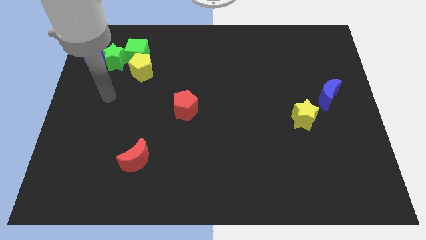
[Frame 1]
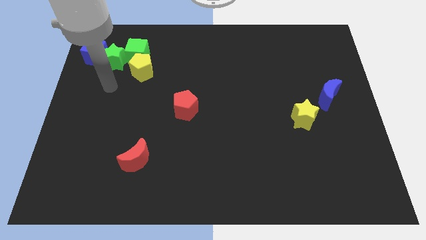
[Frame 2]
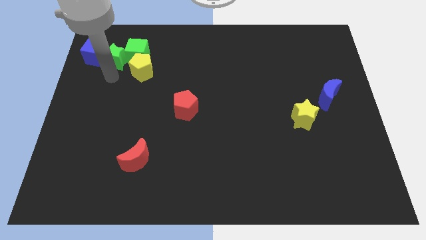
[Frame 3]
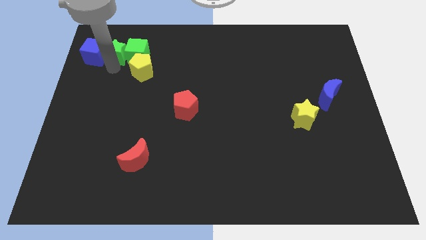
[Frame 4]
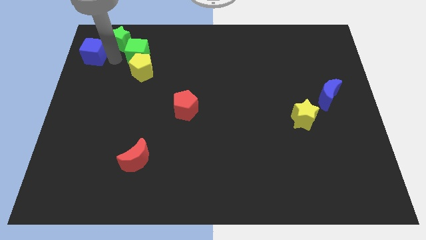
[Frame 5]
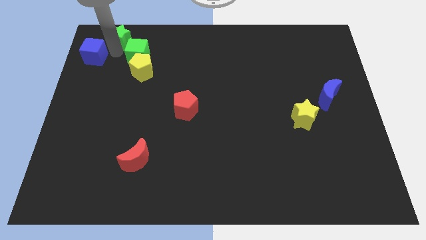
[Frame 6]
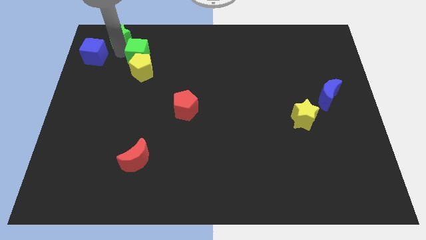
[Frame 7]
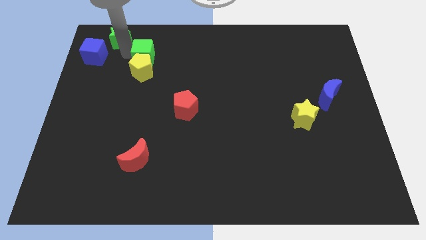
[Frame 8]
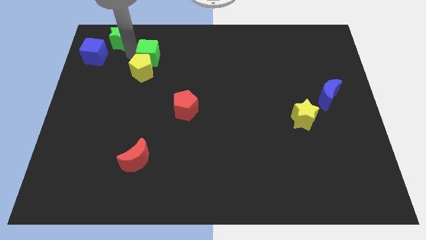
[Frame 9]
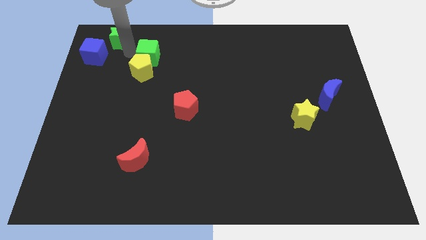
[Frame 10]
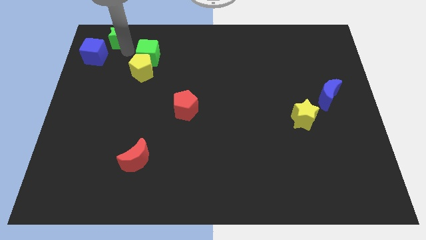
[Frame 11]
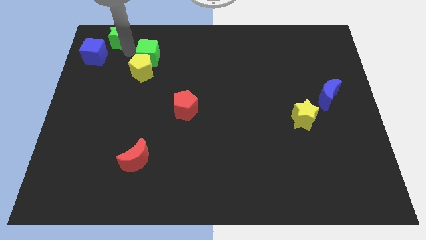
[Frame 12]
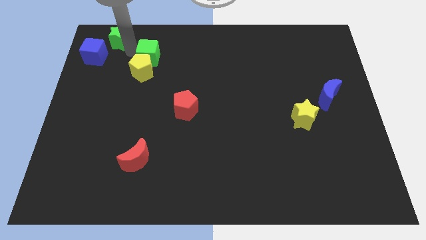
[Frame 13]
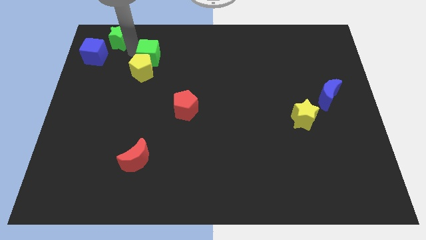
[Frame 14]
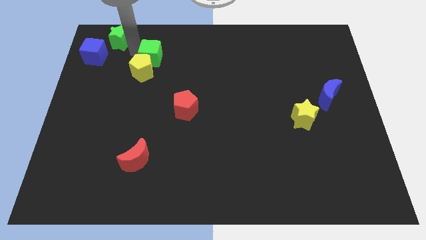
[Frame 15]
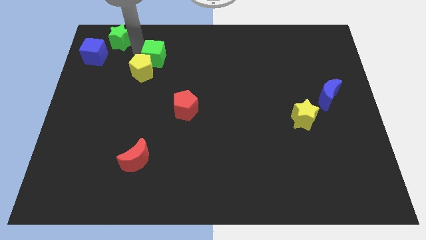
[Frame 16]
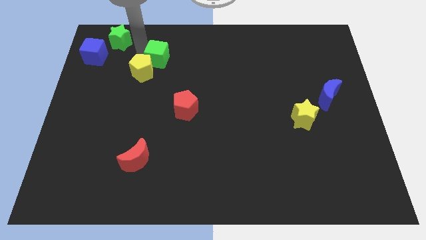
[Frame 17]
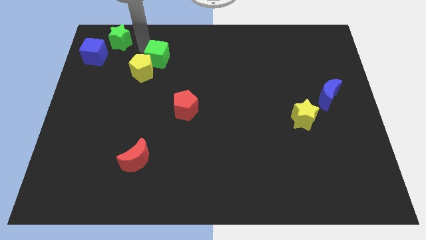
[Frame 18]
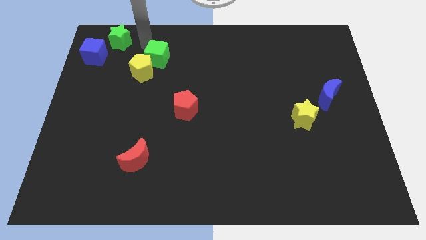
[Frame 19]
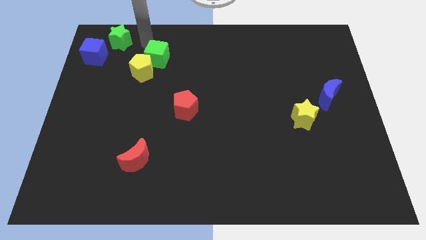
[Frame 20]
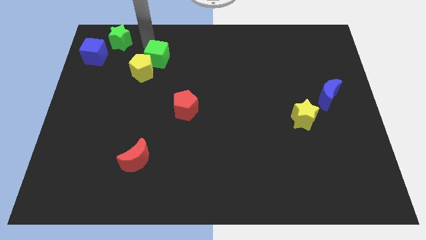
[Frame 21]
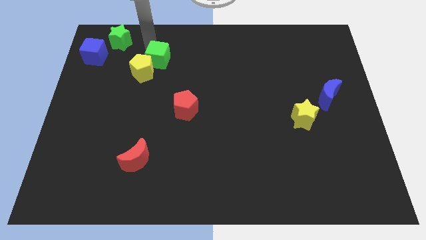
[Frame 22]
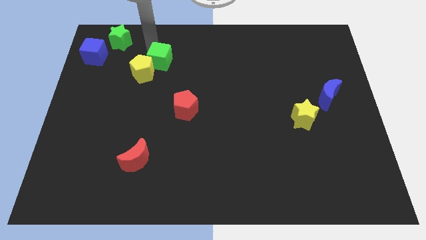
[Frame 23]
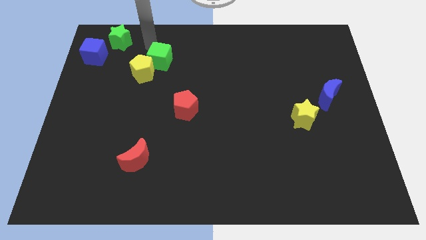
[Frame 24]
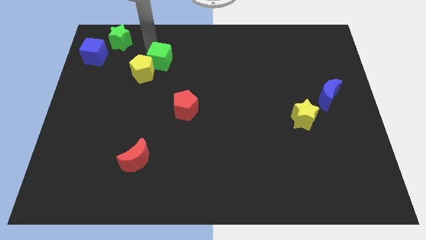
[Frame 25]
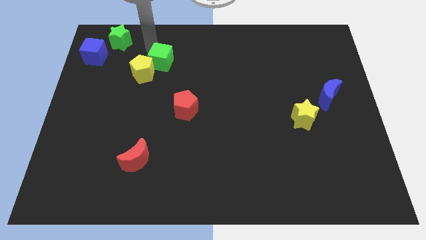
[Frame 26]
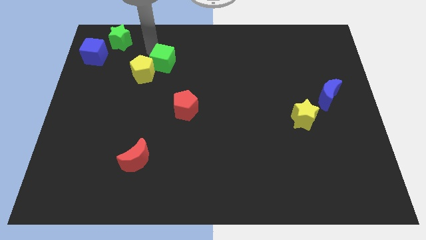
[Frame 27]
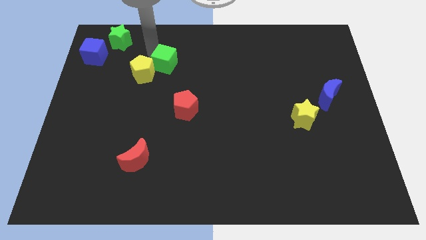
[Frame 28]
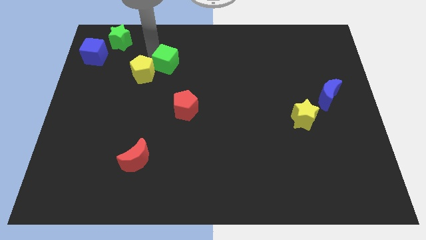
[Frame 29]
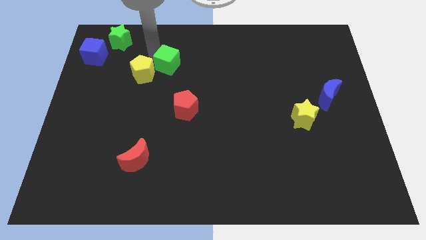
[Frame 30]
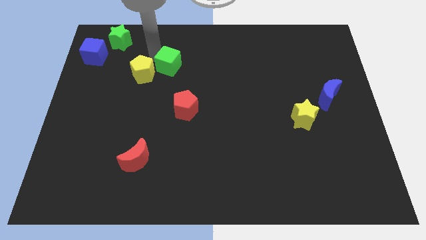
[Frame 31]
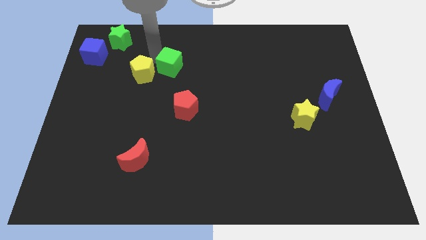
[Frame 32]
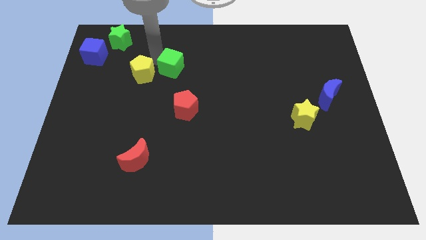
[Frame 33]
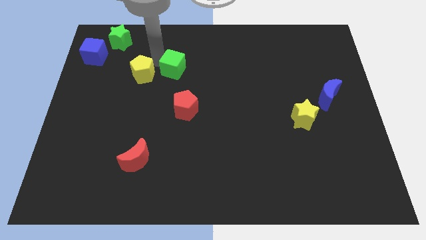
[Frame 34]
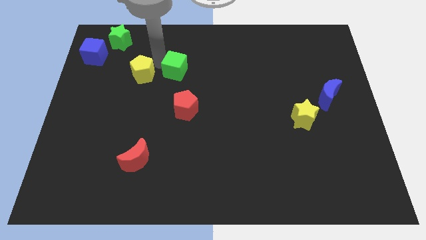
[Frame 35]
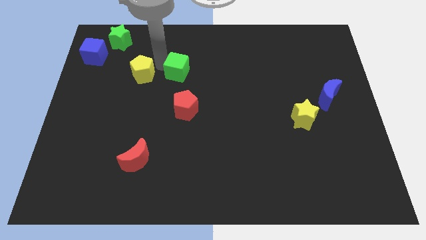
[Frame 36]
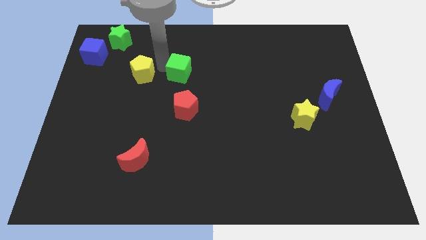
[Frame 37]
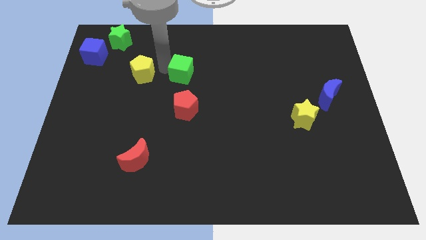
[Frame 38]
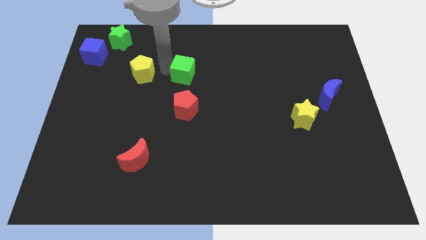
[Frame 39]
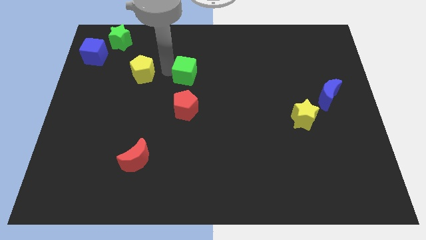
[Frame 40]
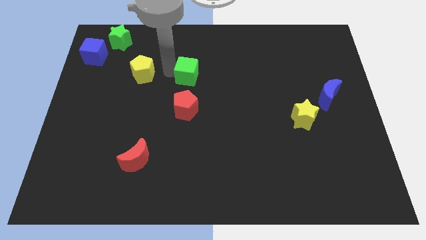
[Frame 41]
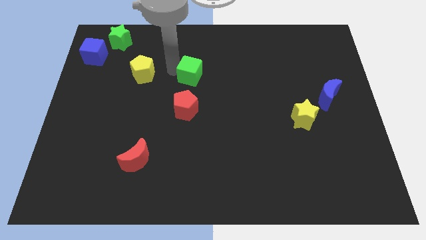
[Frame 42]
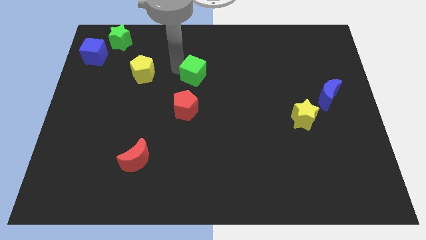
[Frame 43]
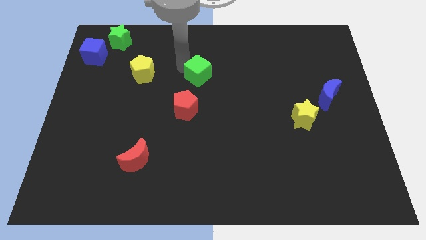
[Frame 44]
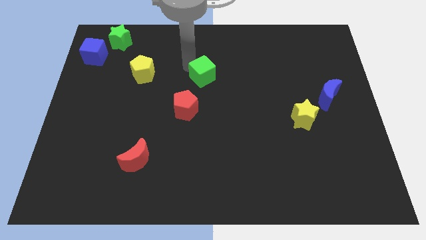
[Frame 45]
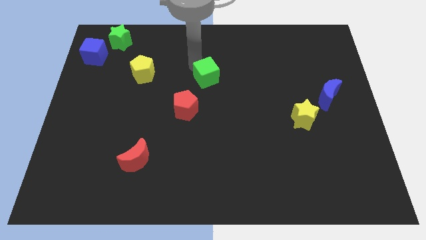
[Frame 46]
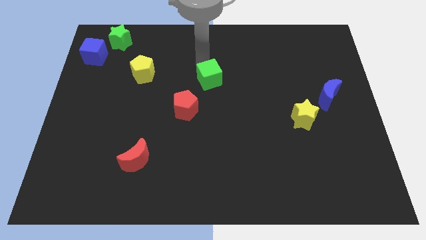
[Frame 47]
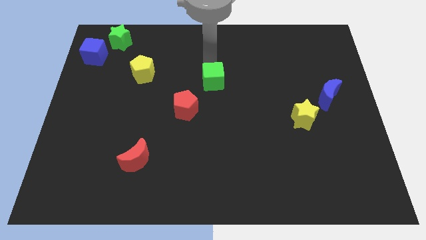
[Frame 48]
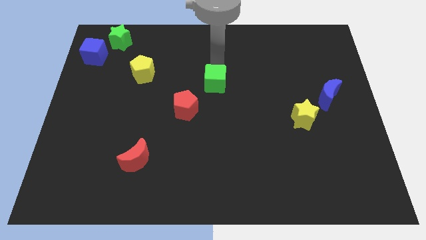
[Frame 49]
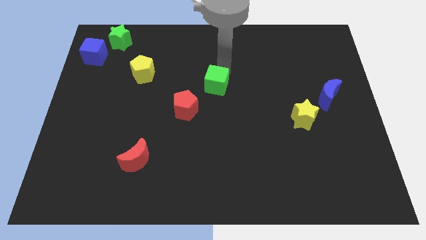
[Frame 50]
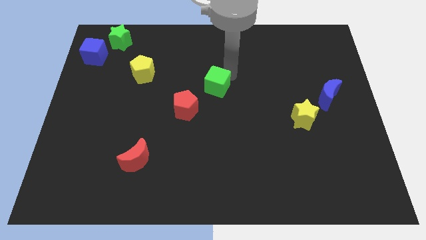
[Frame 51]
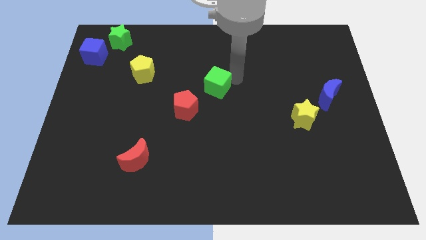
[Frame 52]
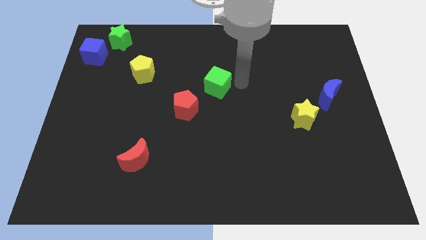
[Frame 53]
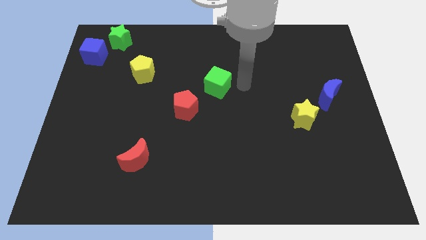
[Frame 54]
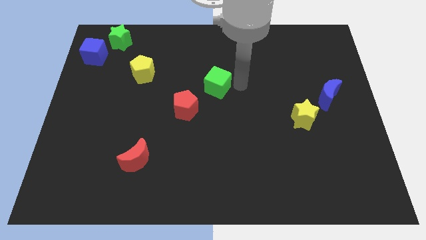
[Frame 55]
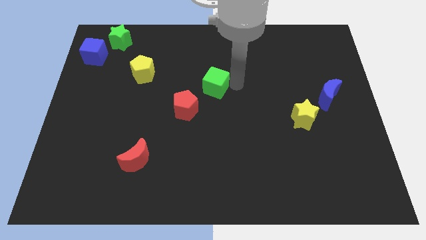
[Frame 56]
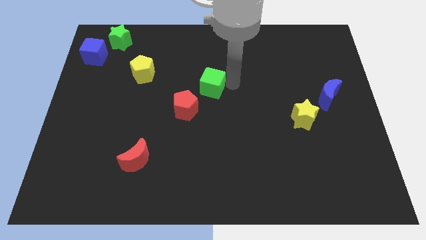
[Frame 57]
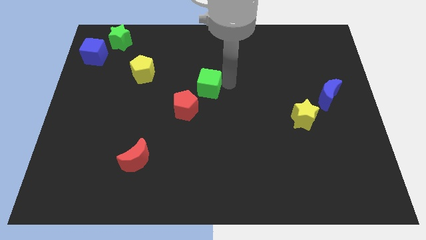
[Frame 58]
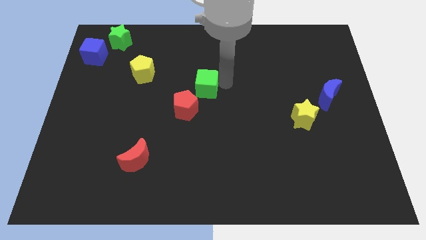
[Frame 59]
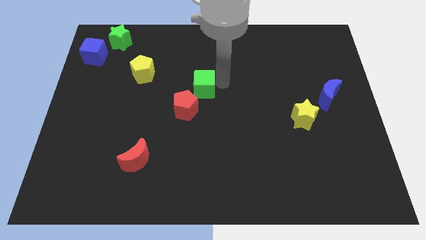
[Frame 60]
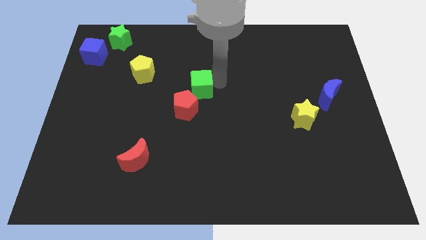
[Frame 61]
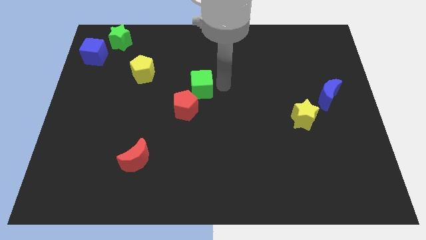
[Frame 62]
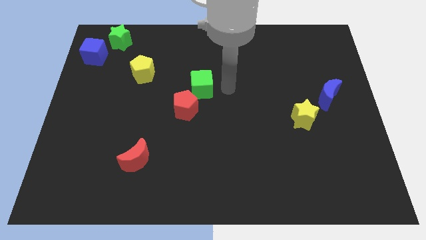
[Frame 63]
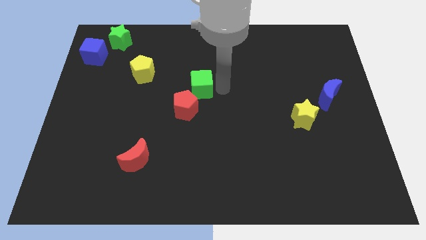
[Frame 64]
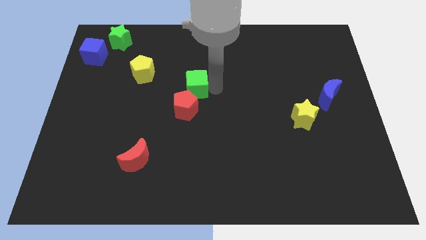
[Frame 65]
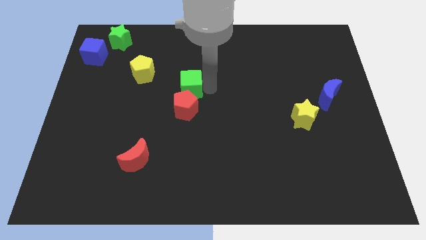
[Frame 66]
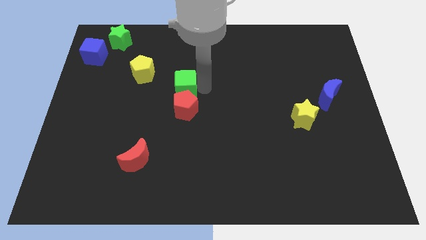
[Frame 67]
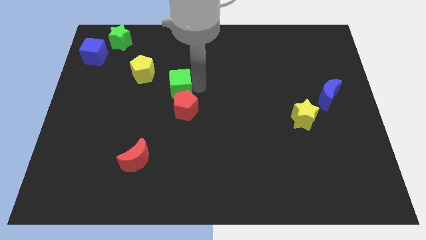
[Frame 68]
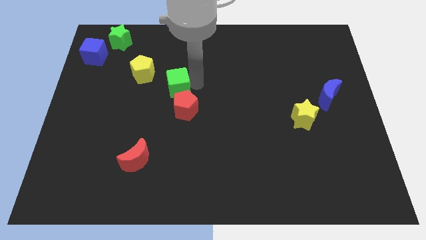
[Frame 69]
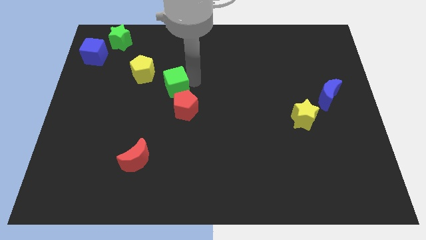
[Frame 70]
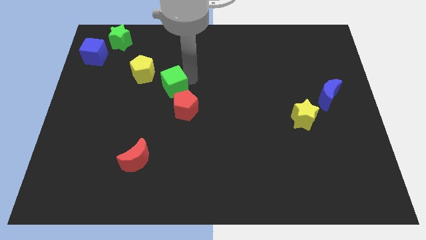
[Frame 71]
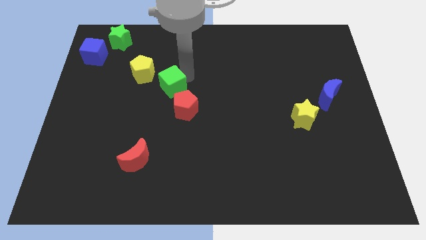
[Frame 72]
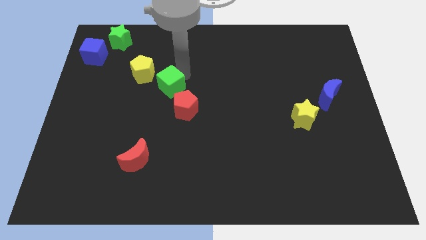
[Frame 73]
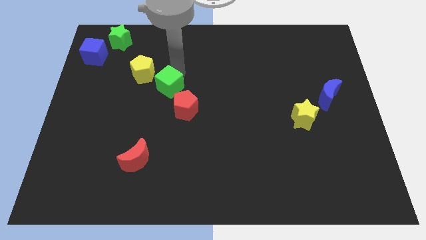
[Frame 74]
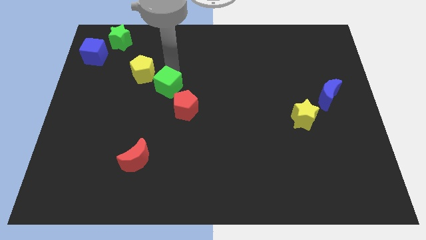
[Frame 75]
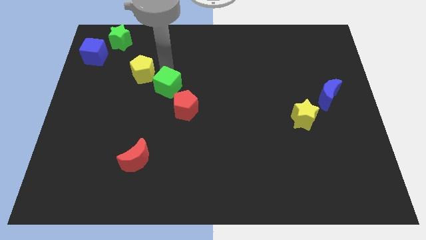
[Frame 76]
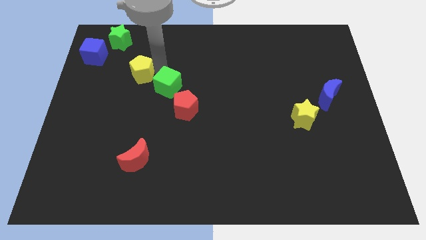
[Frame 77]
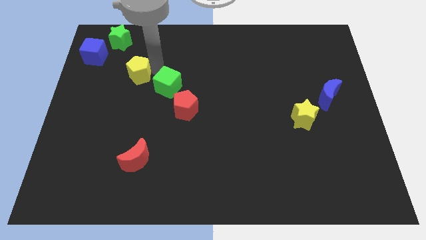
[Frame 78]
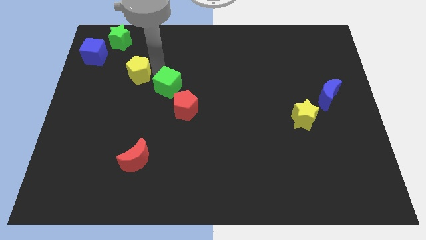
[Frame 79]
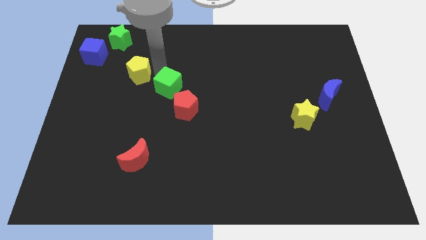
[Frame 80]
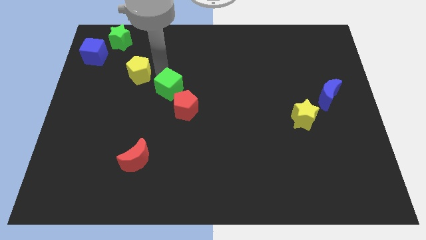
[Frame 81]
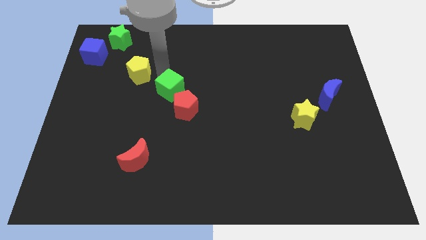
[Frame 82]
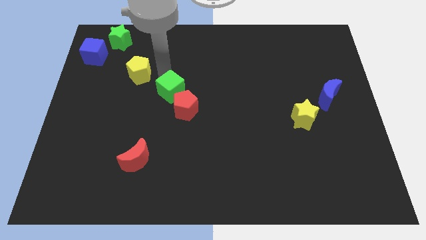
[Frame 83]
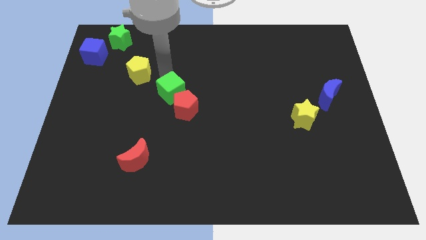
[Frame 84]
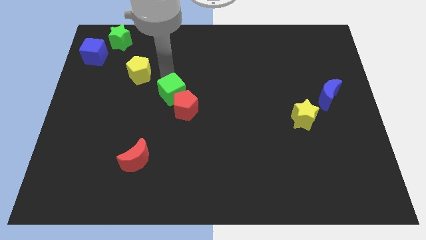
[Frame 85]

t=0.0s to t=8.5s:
put the green cube close to the red pentagon
